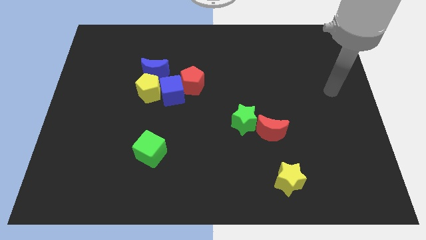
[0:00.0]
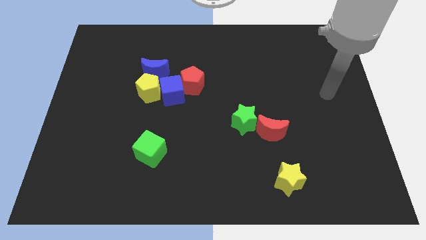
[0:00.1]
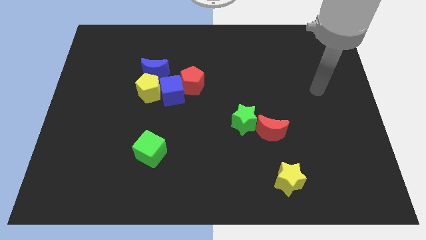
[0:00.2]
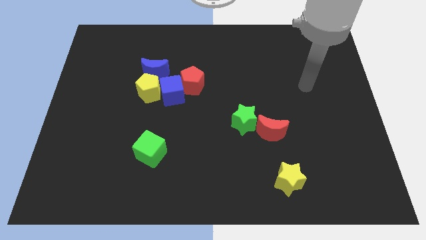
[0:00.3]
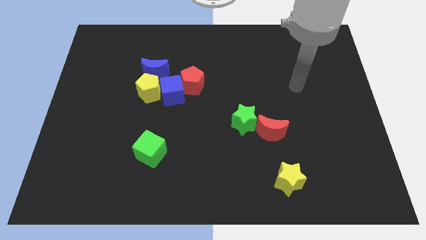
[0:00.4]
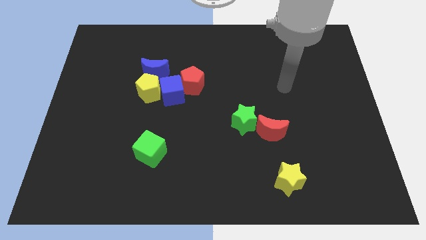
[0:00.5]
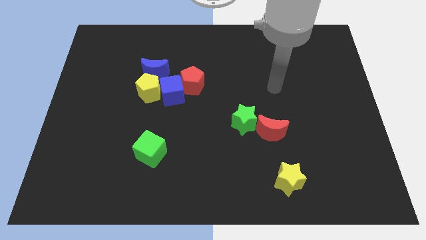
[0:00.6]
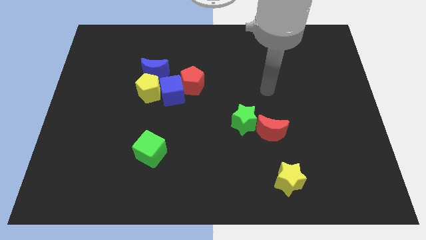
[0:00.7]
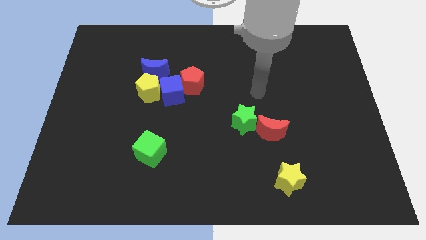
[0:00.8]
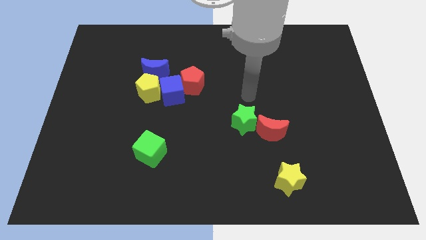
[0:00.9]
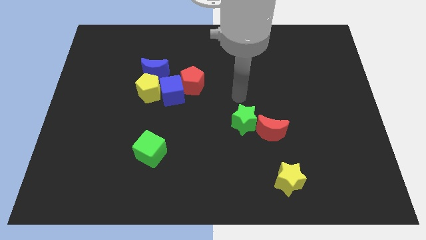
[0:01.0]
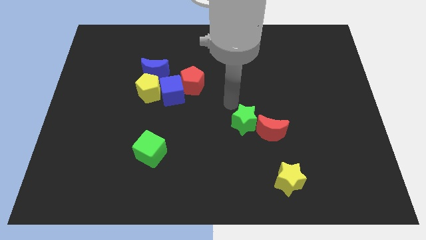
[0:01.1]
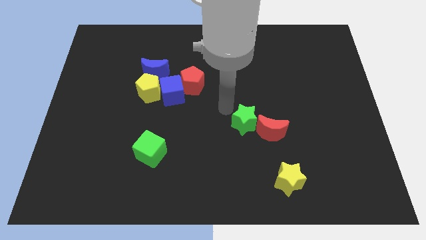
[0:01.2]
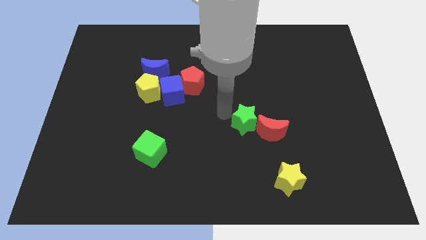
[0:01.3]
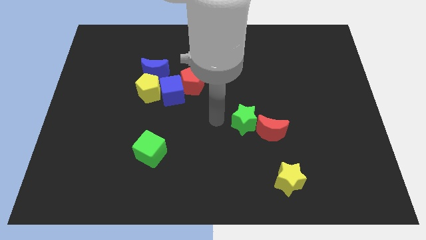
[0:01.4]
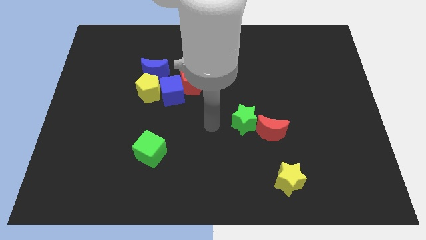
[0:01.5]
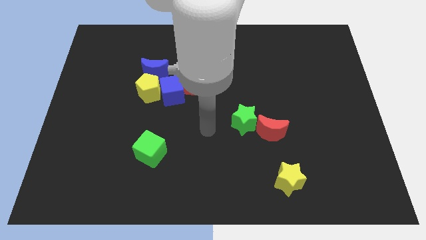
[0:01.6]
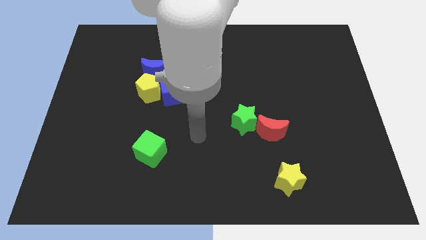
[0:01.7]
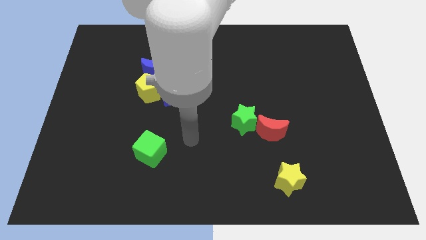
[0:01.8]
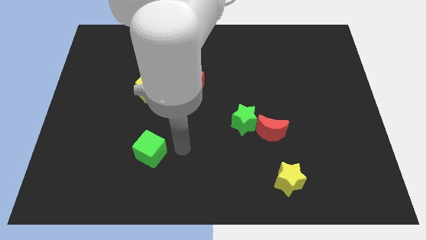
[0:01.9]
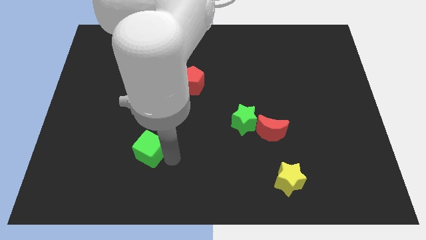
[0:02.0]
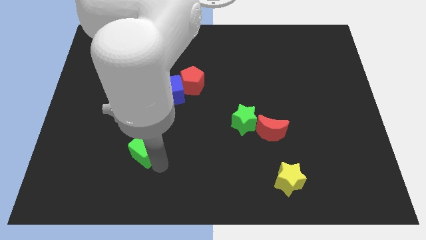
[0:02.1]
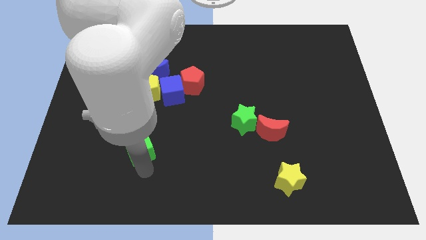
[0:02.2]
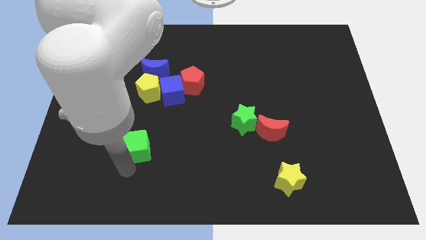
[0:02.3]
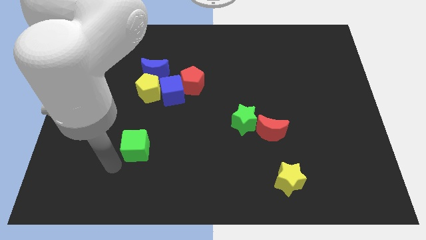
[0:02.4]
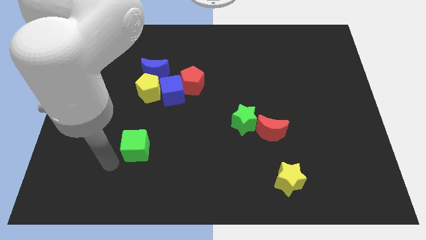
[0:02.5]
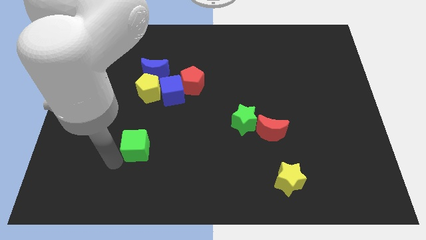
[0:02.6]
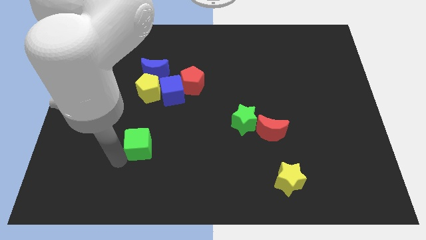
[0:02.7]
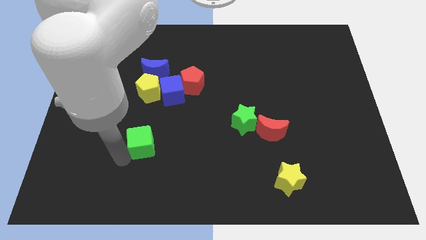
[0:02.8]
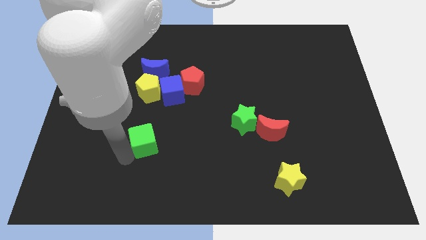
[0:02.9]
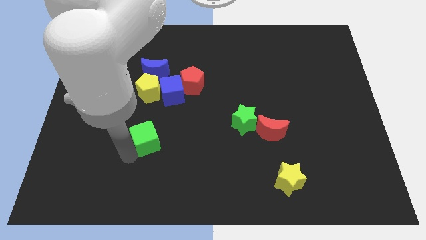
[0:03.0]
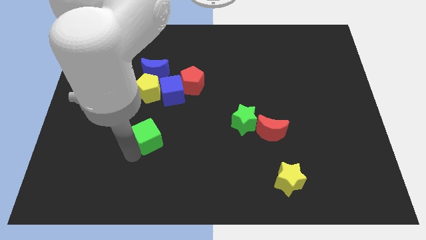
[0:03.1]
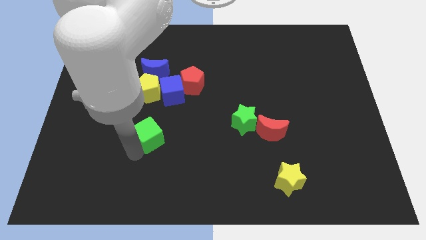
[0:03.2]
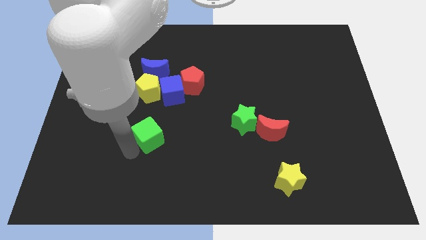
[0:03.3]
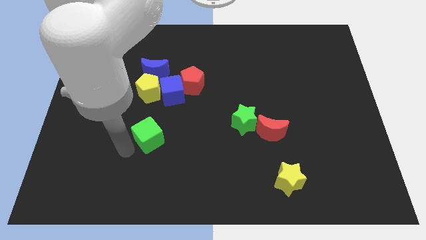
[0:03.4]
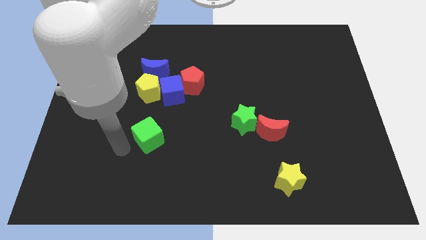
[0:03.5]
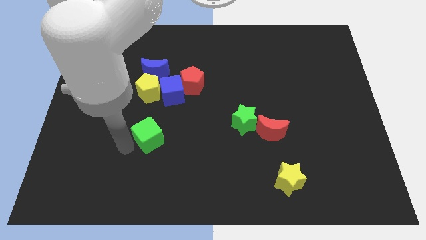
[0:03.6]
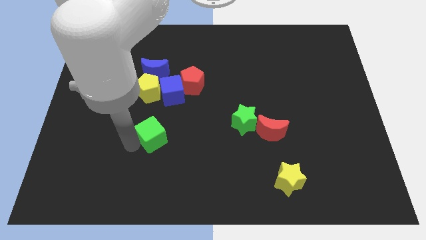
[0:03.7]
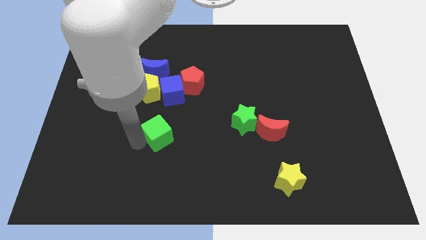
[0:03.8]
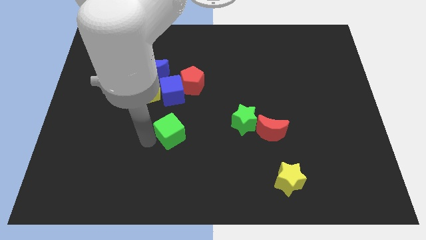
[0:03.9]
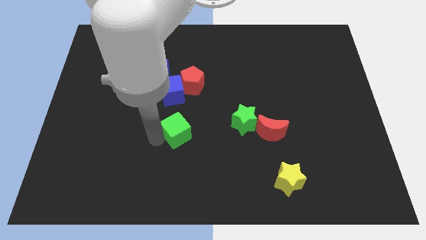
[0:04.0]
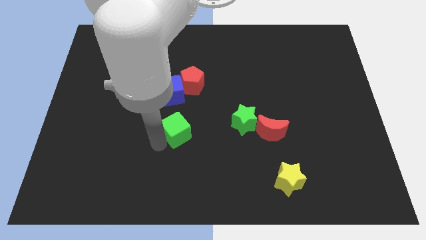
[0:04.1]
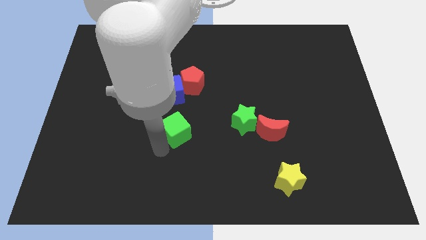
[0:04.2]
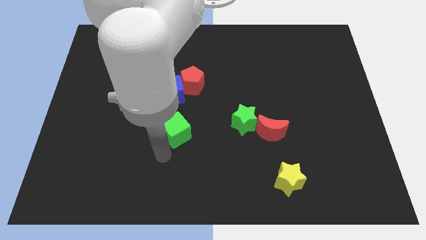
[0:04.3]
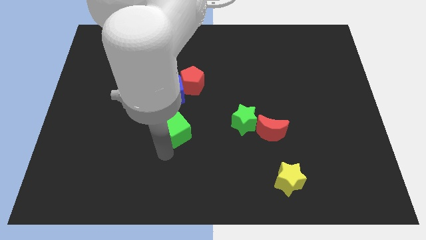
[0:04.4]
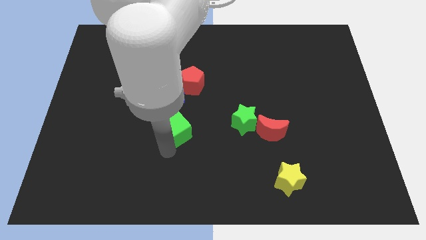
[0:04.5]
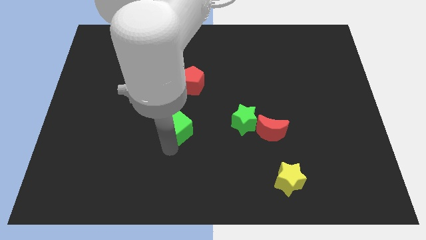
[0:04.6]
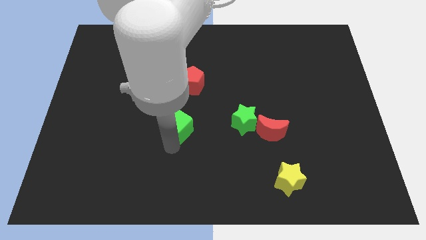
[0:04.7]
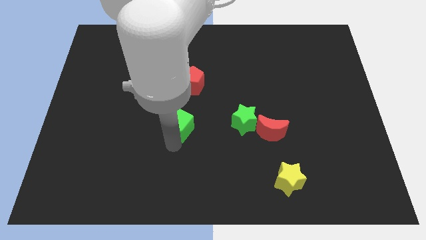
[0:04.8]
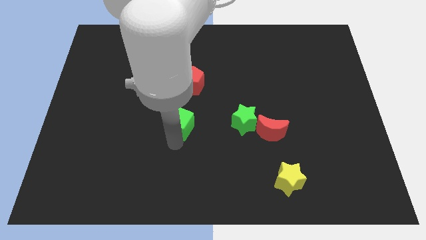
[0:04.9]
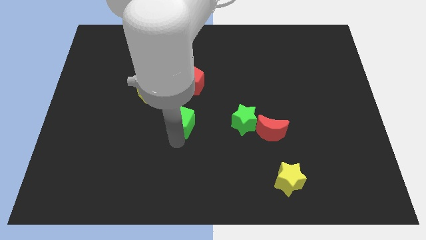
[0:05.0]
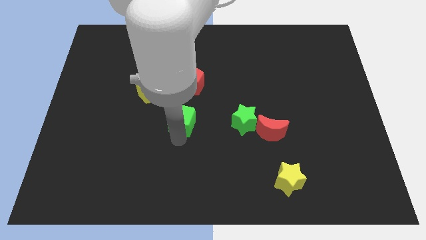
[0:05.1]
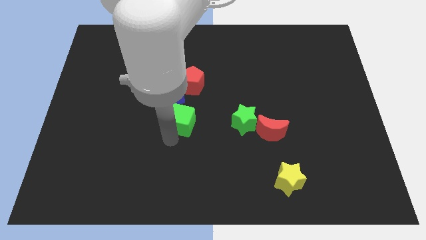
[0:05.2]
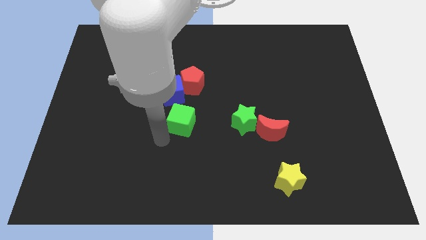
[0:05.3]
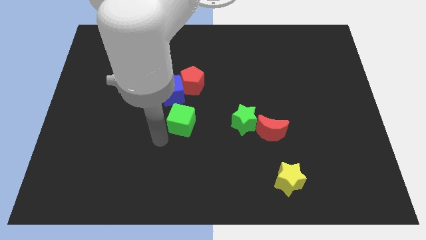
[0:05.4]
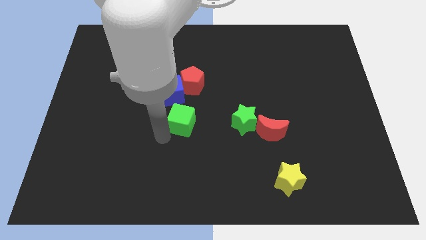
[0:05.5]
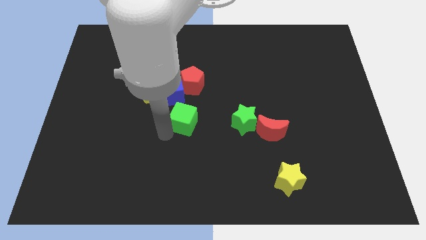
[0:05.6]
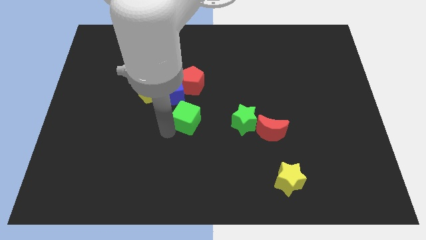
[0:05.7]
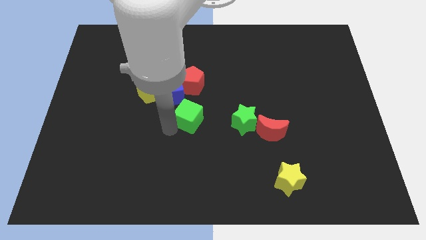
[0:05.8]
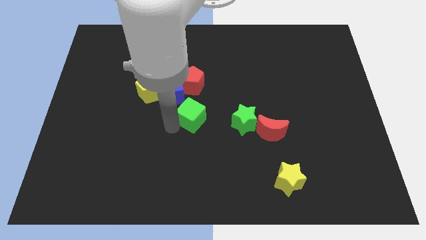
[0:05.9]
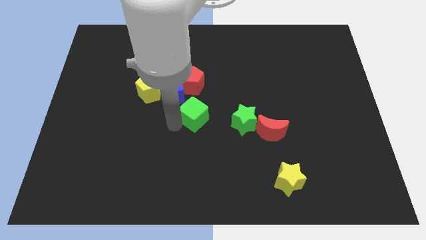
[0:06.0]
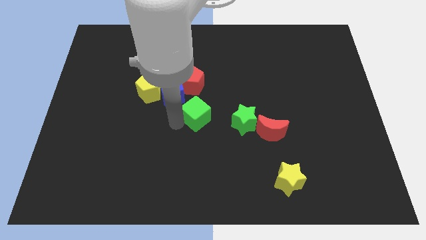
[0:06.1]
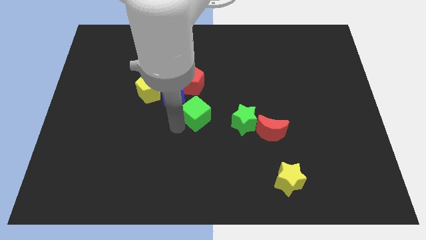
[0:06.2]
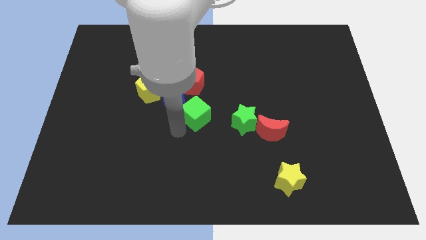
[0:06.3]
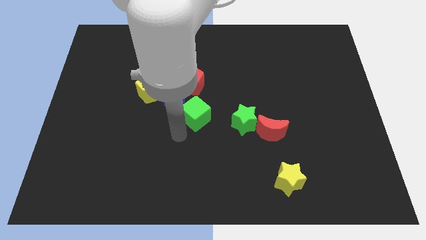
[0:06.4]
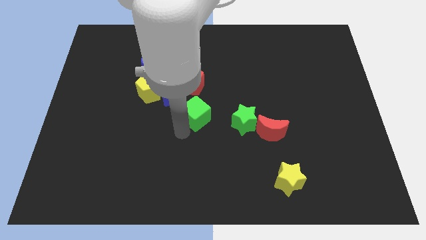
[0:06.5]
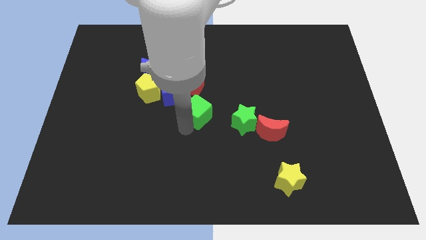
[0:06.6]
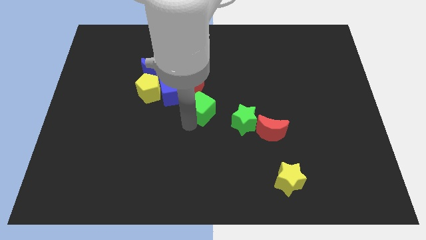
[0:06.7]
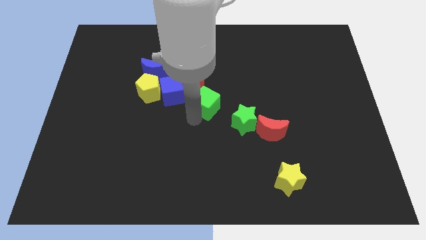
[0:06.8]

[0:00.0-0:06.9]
slide the green cube to the right of the blue cube
